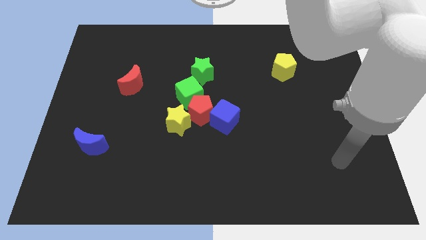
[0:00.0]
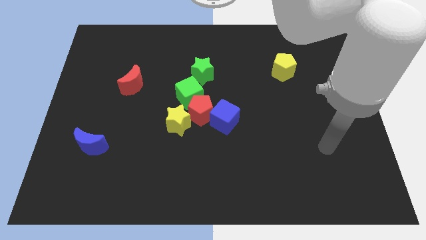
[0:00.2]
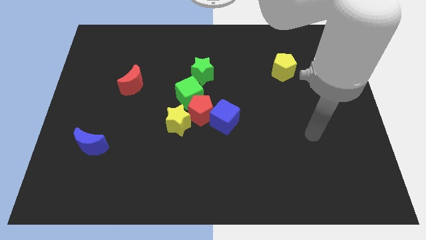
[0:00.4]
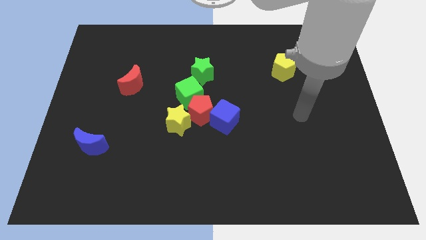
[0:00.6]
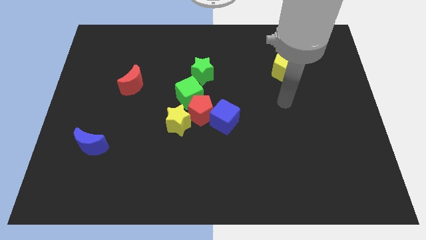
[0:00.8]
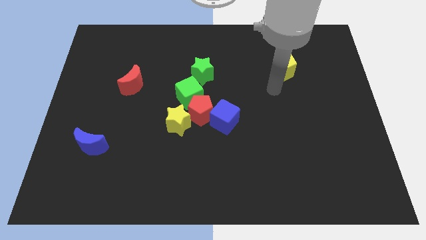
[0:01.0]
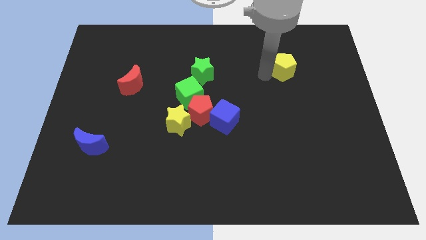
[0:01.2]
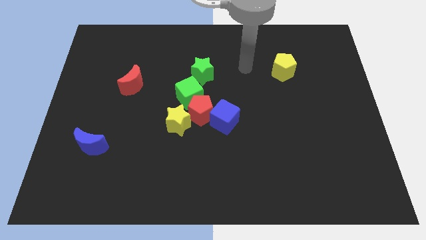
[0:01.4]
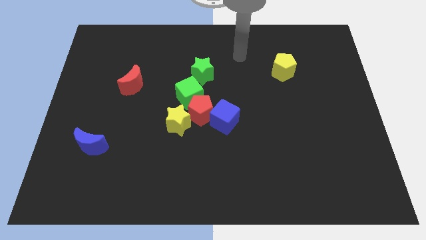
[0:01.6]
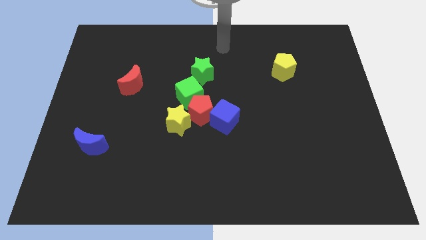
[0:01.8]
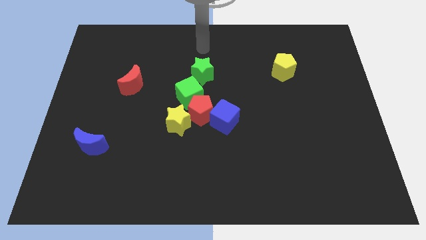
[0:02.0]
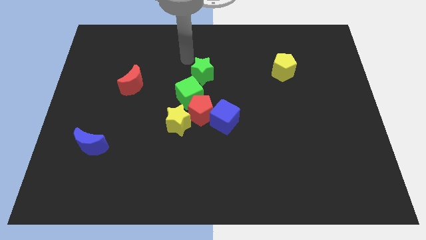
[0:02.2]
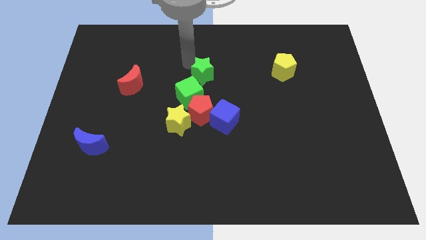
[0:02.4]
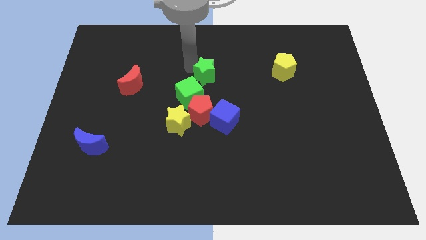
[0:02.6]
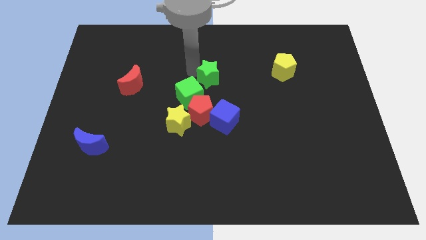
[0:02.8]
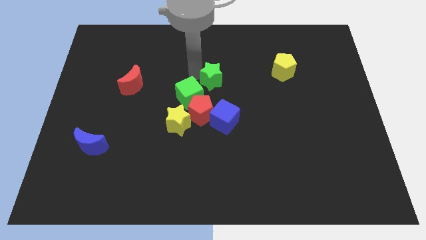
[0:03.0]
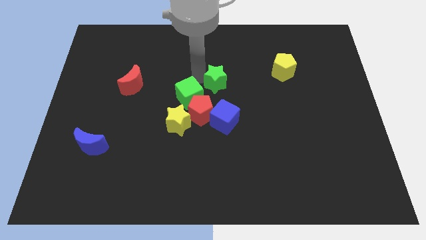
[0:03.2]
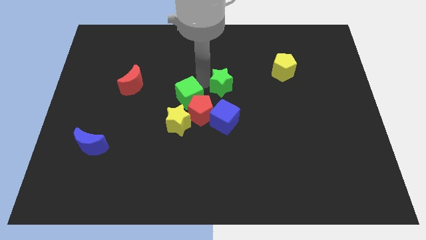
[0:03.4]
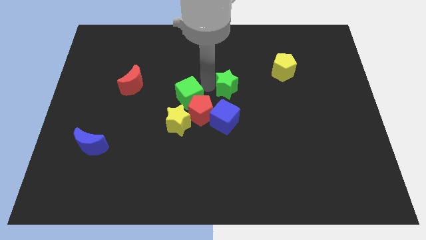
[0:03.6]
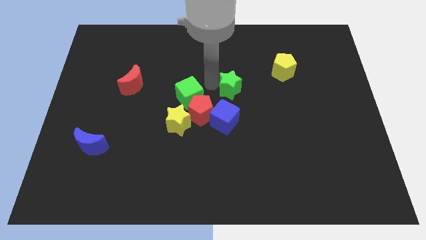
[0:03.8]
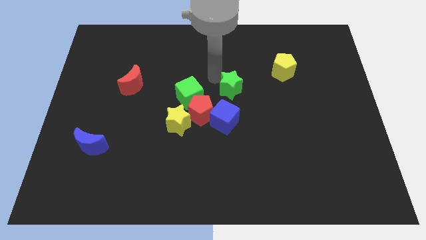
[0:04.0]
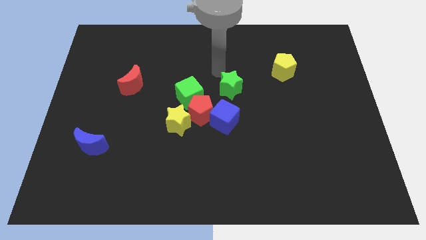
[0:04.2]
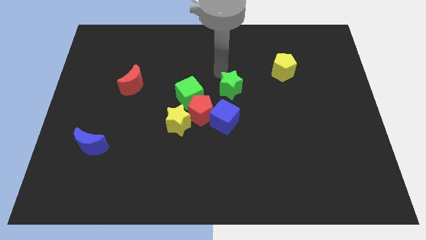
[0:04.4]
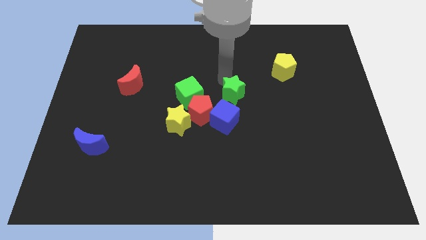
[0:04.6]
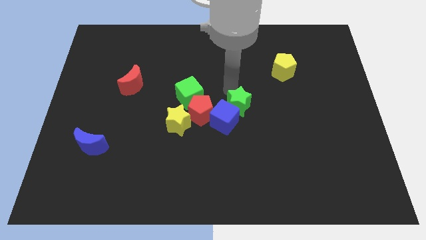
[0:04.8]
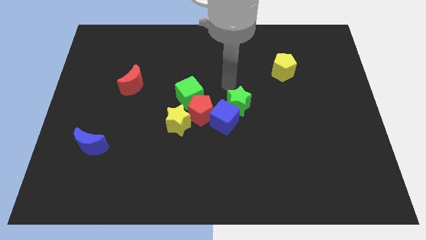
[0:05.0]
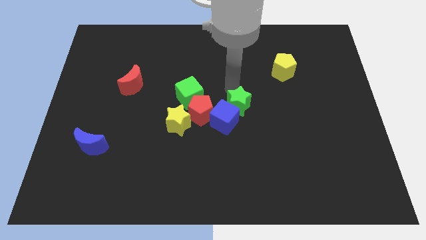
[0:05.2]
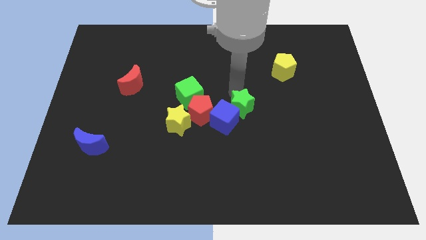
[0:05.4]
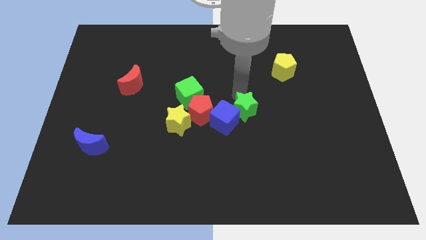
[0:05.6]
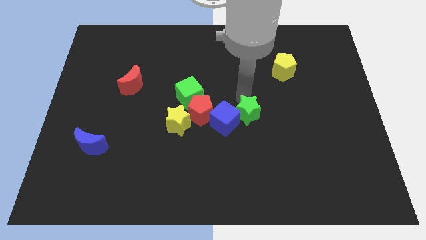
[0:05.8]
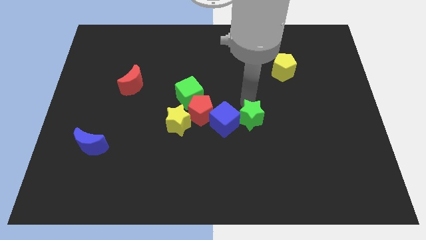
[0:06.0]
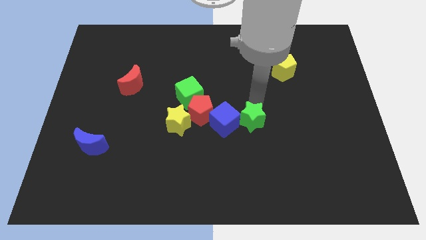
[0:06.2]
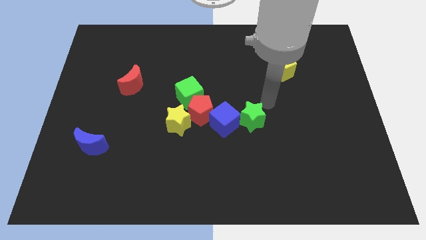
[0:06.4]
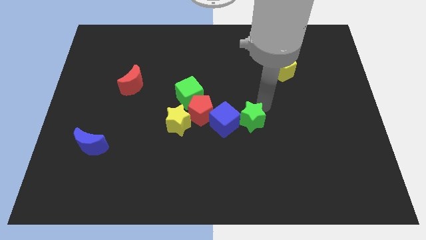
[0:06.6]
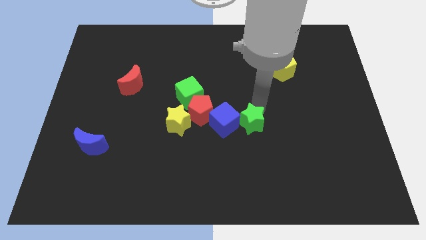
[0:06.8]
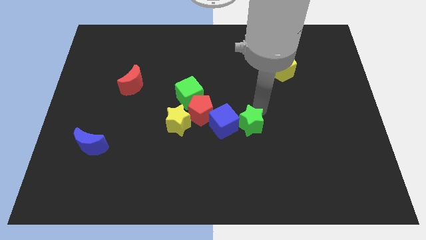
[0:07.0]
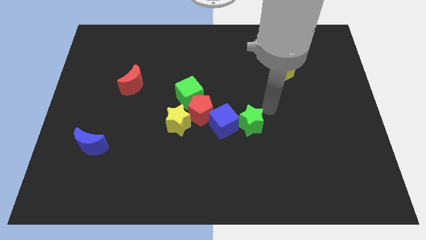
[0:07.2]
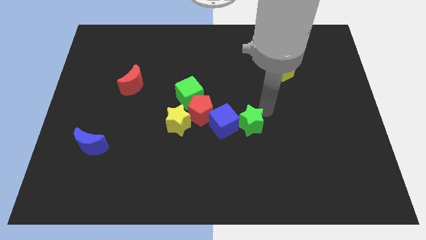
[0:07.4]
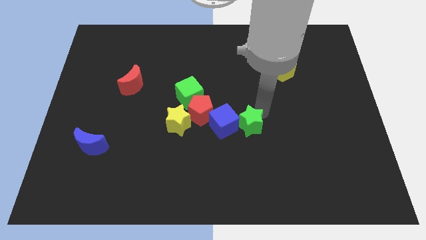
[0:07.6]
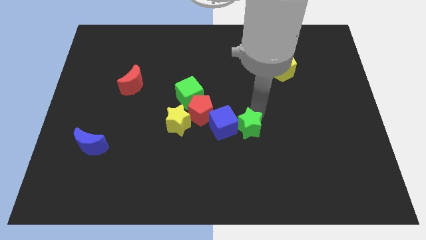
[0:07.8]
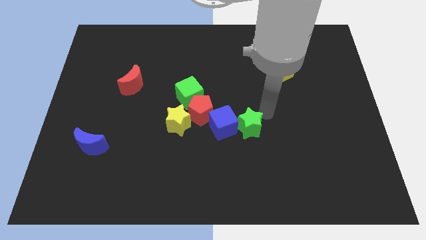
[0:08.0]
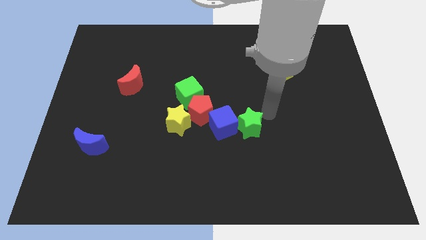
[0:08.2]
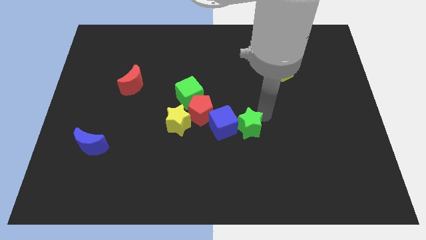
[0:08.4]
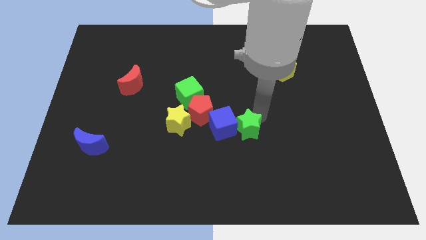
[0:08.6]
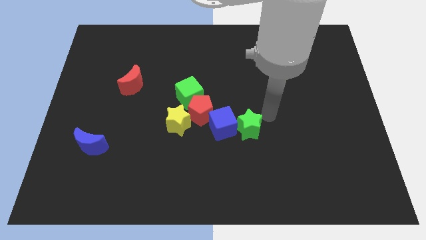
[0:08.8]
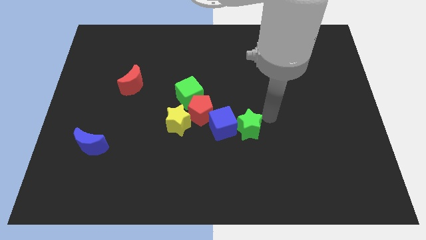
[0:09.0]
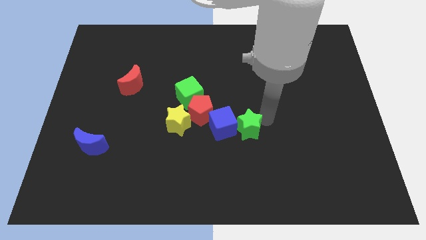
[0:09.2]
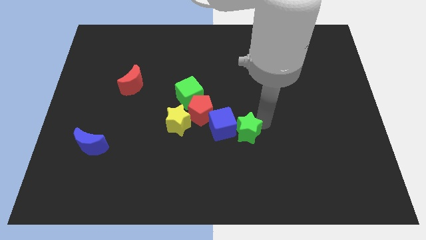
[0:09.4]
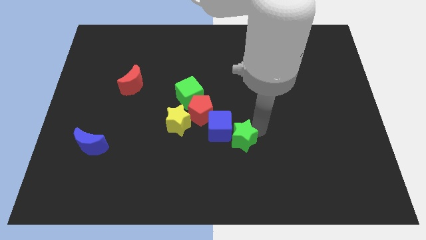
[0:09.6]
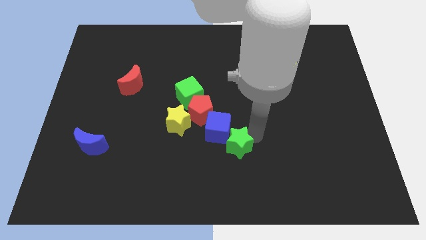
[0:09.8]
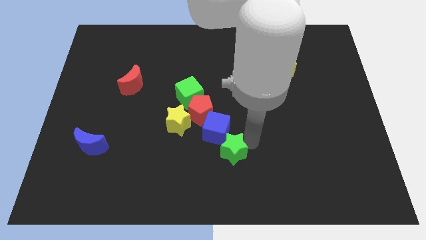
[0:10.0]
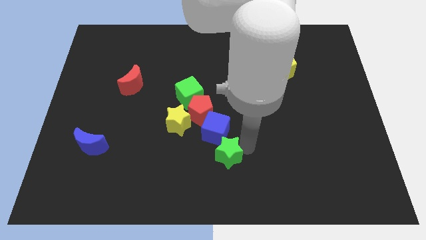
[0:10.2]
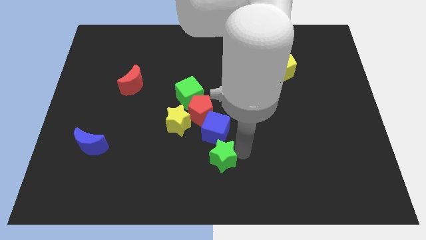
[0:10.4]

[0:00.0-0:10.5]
push the green star below the red pentagon

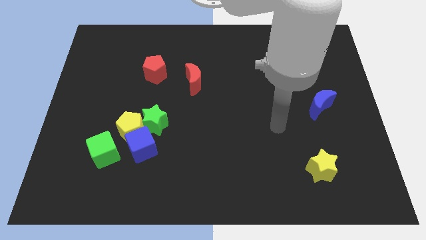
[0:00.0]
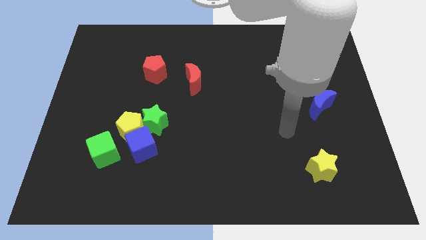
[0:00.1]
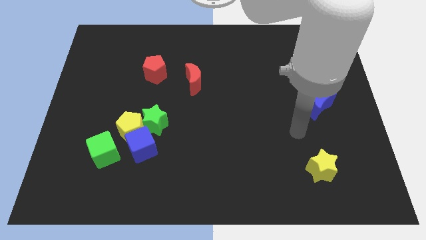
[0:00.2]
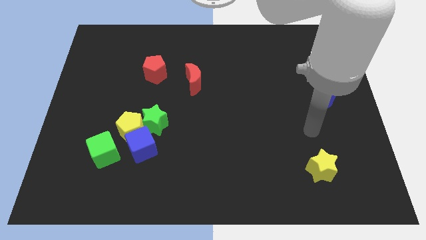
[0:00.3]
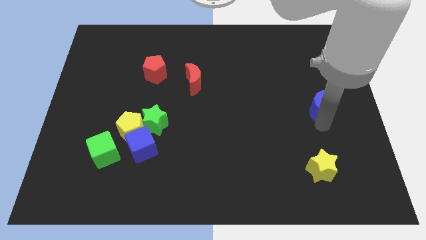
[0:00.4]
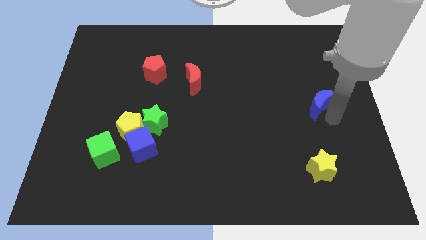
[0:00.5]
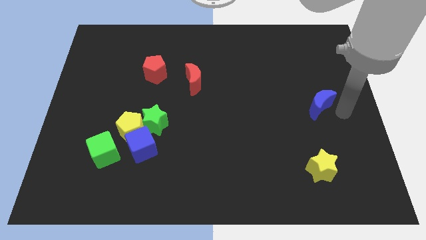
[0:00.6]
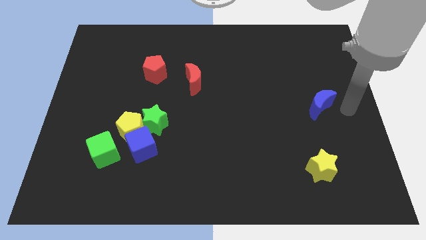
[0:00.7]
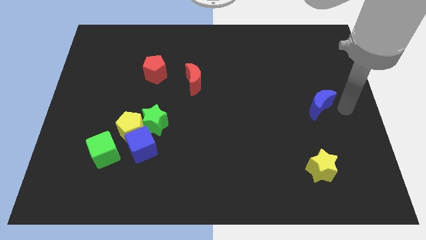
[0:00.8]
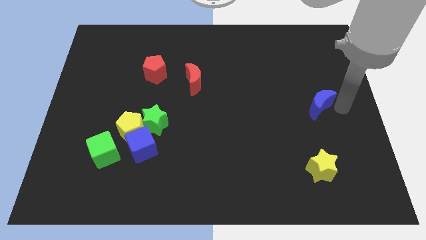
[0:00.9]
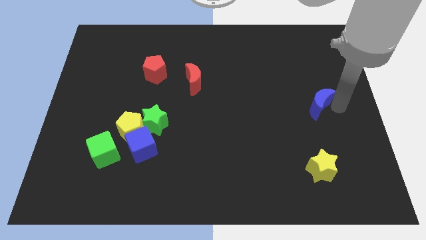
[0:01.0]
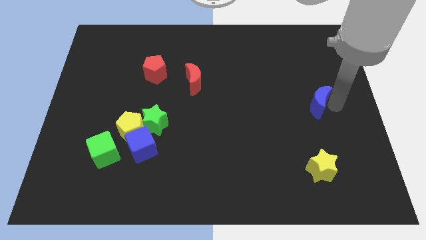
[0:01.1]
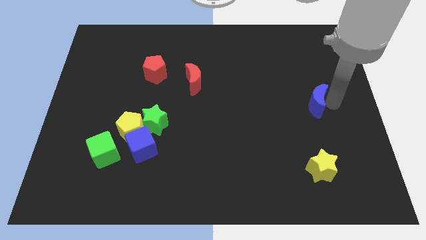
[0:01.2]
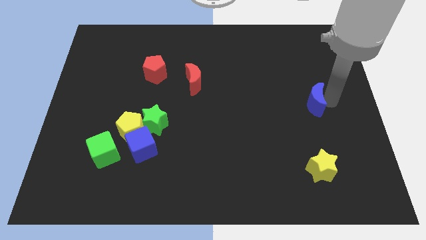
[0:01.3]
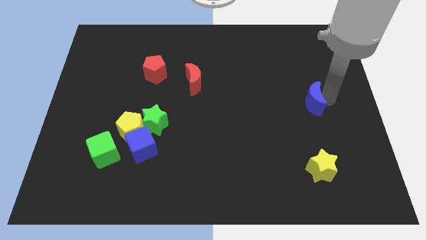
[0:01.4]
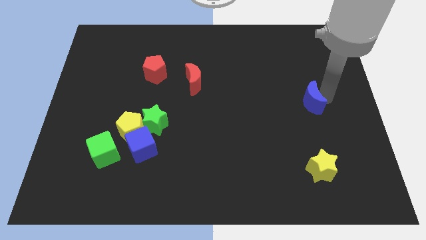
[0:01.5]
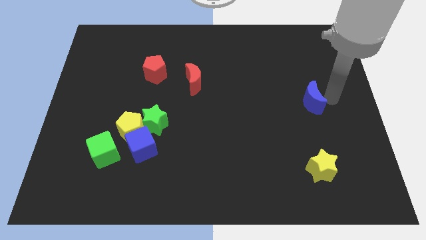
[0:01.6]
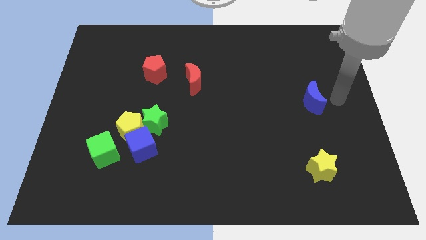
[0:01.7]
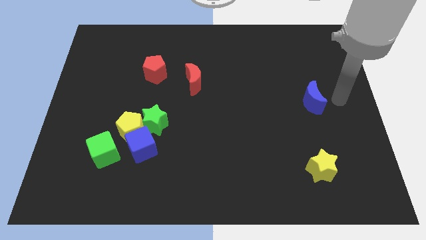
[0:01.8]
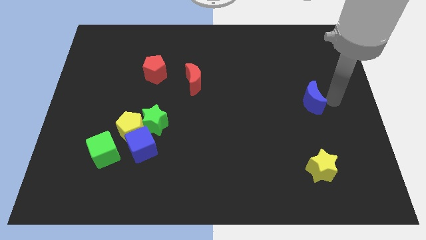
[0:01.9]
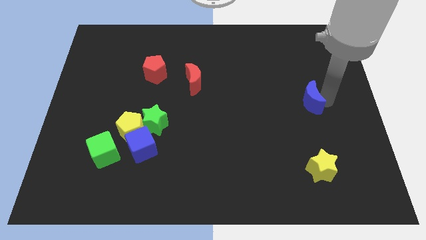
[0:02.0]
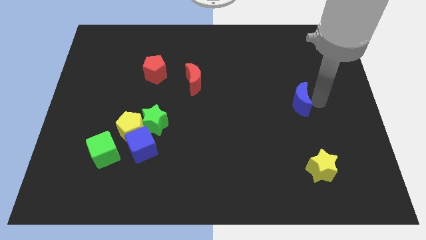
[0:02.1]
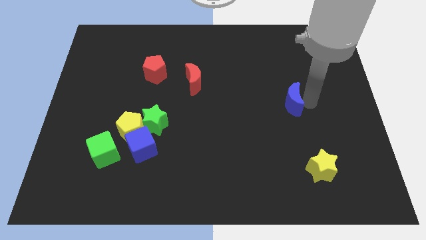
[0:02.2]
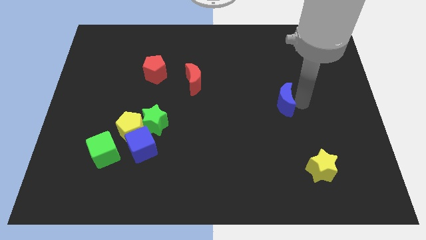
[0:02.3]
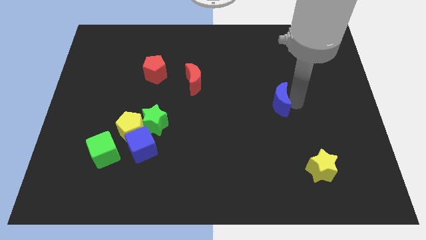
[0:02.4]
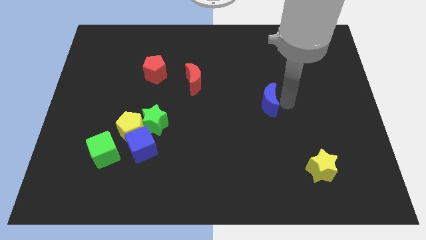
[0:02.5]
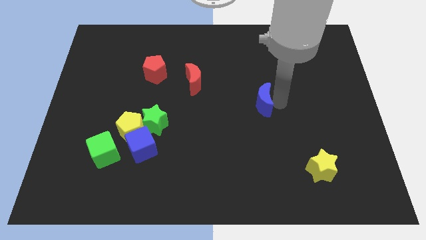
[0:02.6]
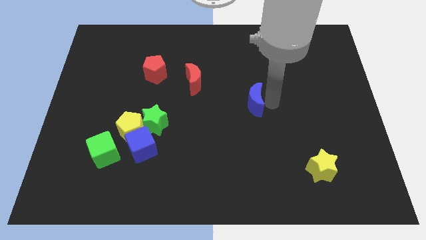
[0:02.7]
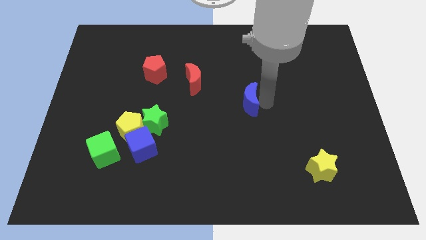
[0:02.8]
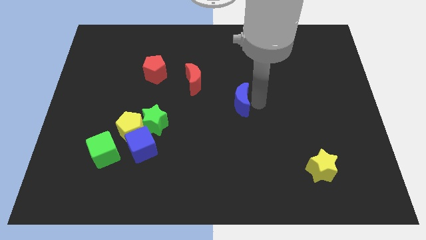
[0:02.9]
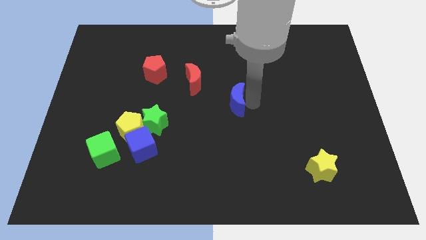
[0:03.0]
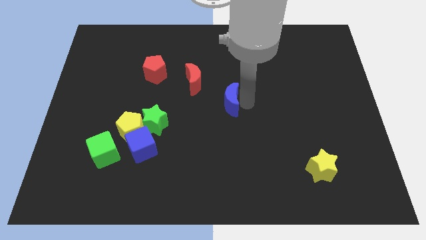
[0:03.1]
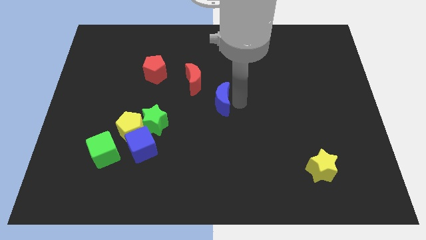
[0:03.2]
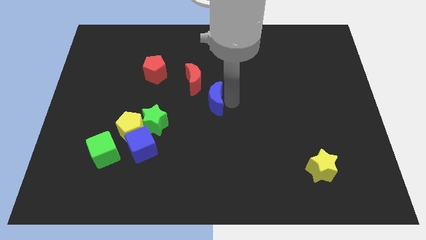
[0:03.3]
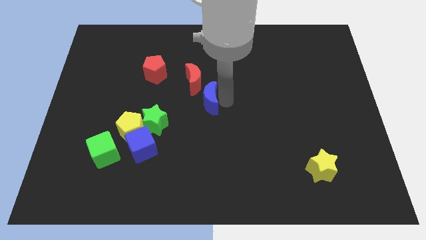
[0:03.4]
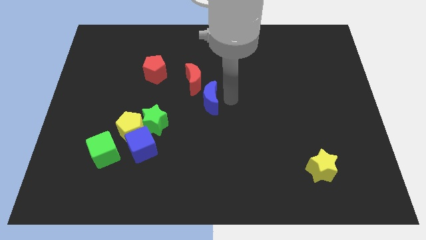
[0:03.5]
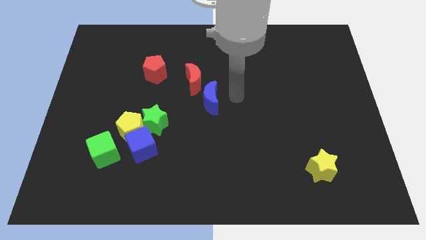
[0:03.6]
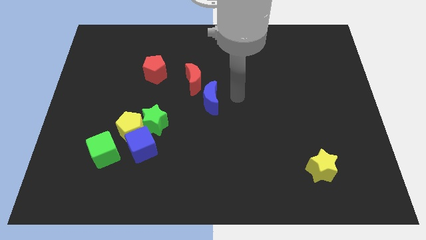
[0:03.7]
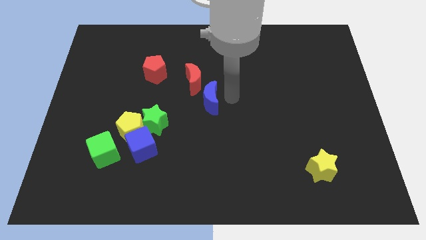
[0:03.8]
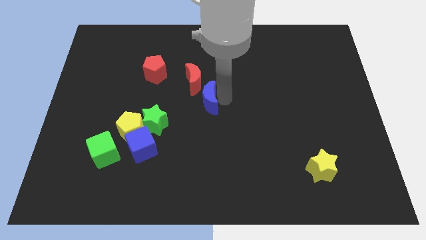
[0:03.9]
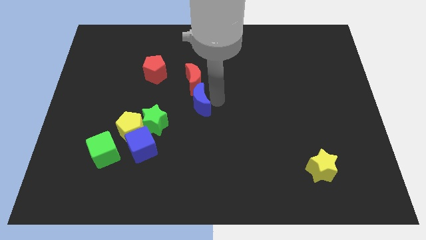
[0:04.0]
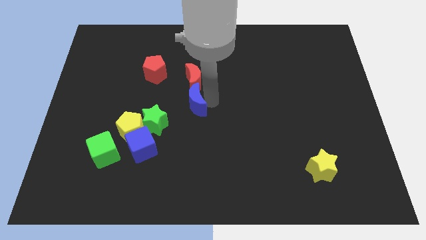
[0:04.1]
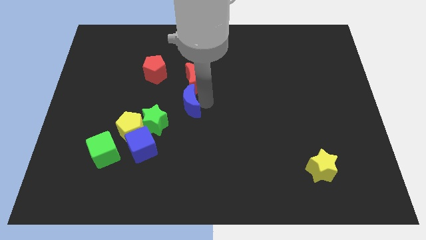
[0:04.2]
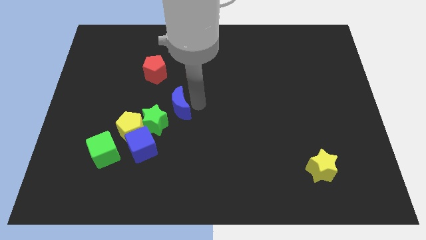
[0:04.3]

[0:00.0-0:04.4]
move the blue moon to the top right of the yellow pentagon
